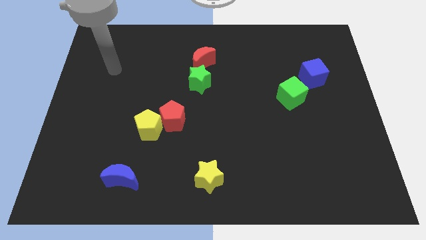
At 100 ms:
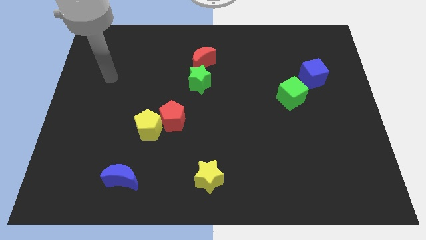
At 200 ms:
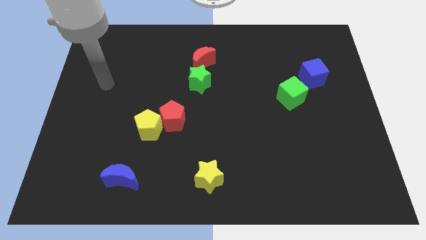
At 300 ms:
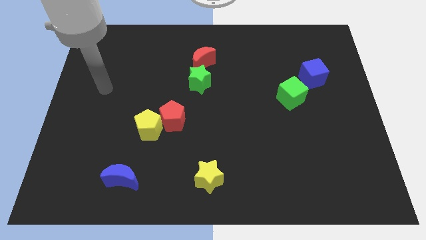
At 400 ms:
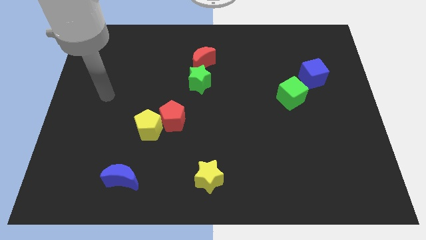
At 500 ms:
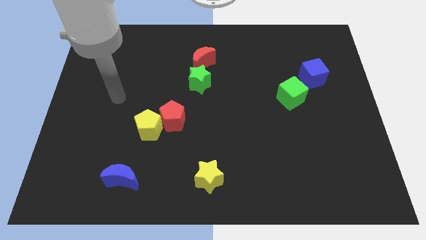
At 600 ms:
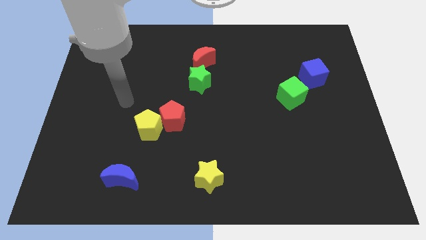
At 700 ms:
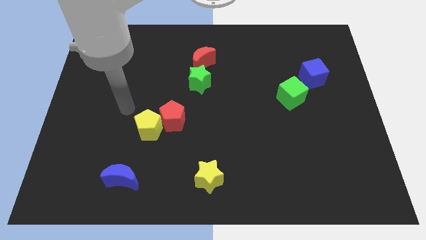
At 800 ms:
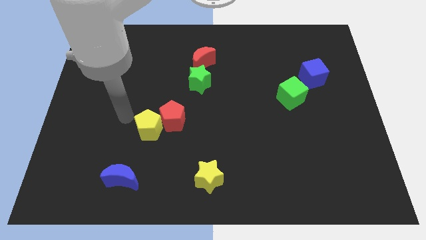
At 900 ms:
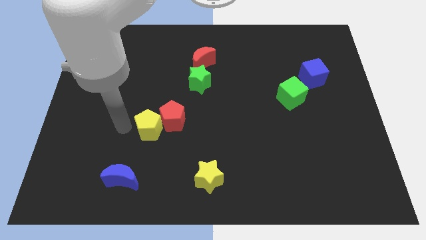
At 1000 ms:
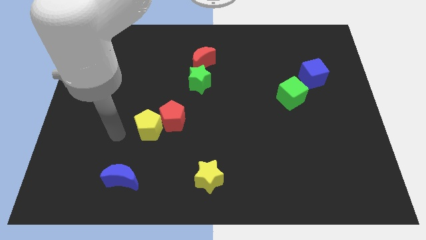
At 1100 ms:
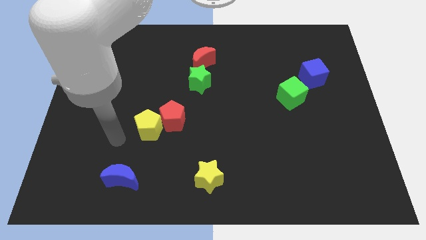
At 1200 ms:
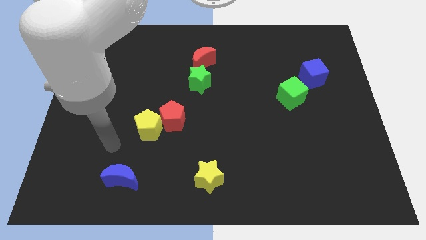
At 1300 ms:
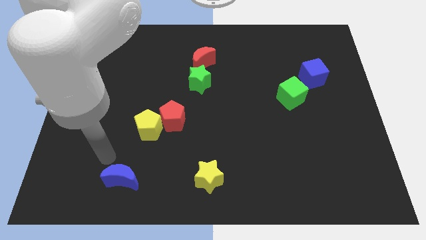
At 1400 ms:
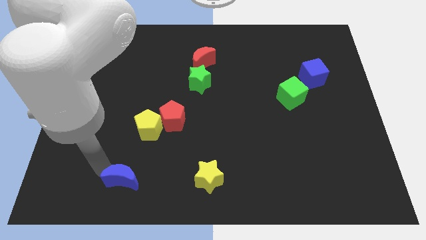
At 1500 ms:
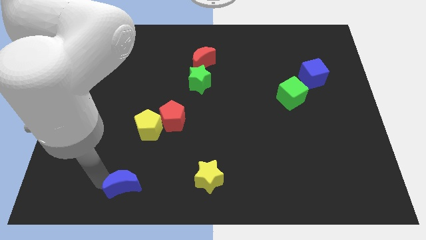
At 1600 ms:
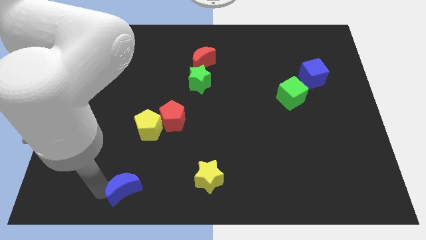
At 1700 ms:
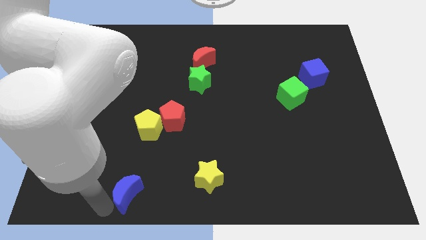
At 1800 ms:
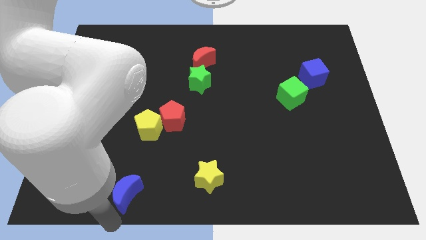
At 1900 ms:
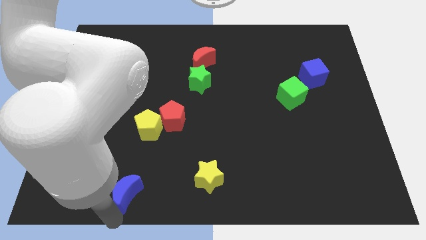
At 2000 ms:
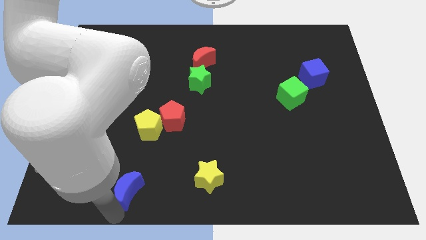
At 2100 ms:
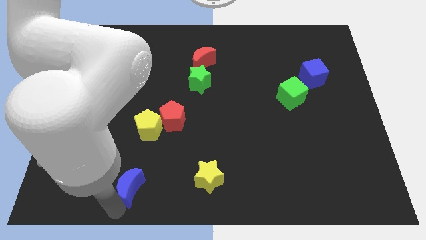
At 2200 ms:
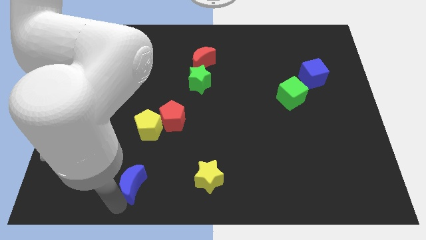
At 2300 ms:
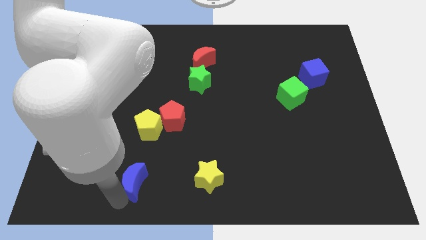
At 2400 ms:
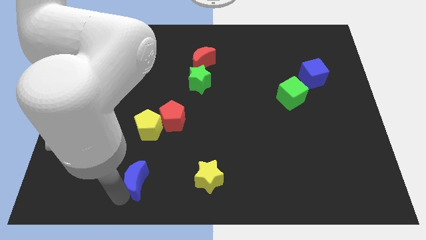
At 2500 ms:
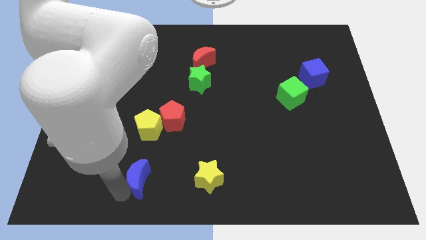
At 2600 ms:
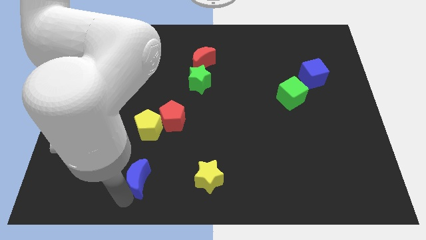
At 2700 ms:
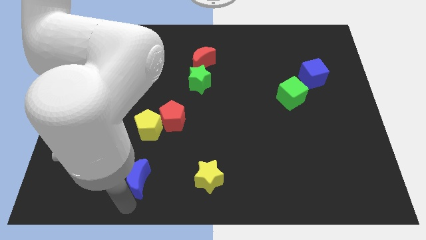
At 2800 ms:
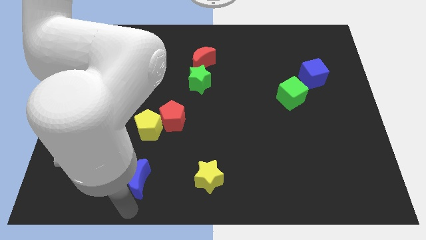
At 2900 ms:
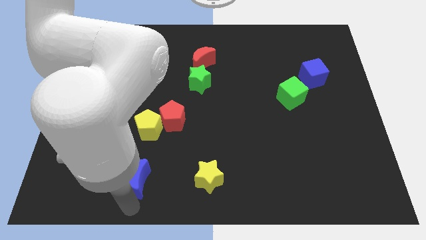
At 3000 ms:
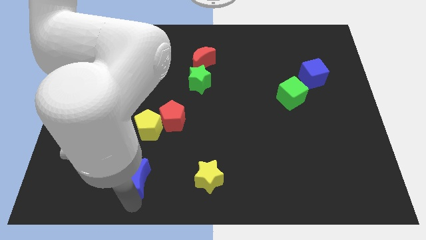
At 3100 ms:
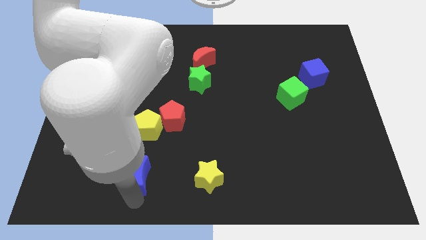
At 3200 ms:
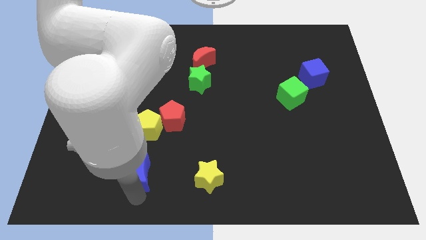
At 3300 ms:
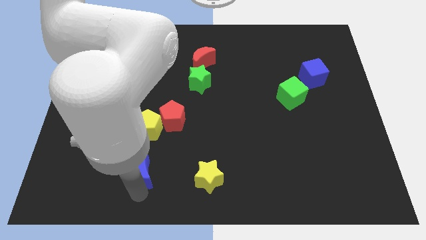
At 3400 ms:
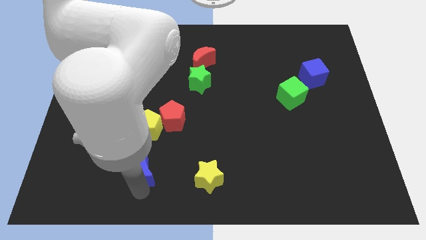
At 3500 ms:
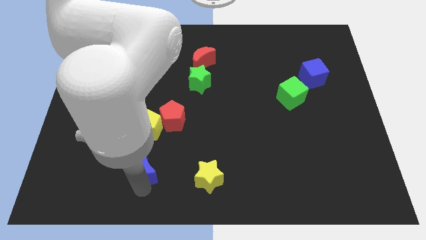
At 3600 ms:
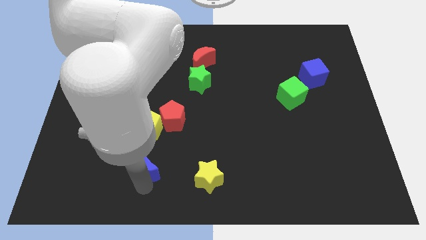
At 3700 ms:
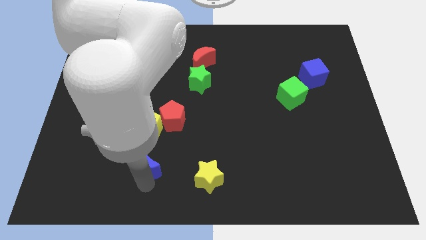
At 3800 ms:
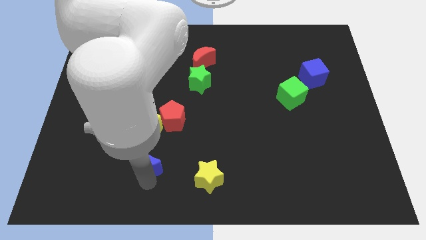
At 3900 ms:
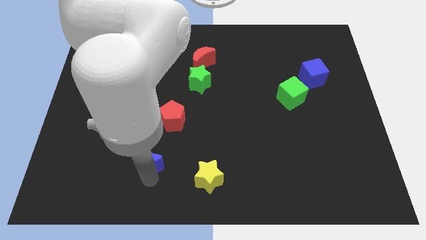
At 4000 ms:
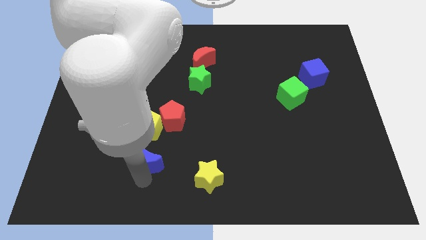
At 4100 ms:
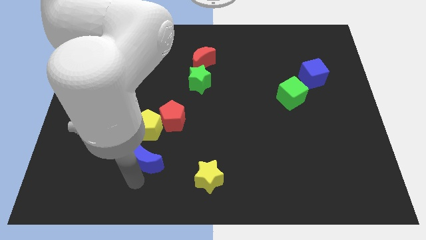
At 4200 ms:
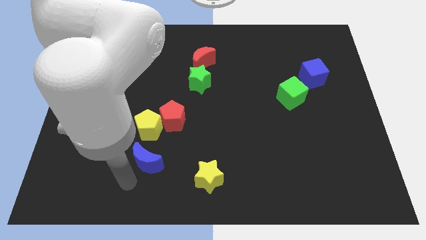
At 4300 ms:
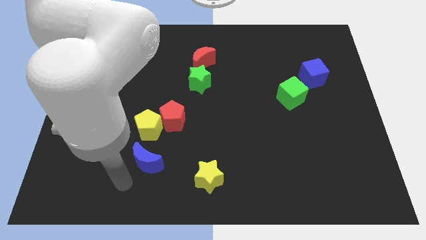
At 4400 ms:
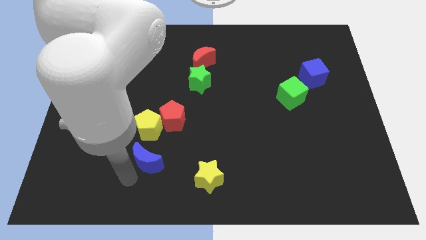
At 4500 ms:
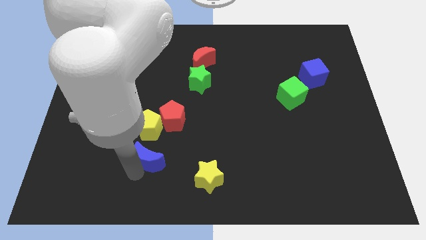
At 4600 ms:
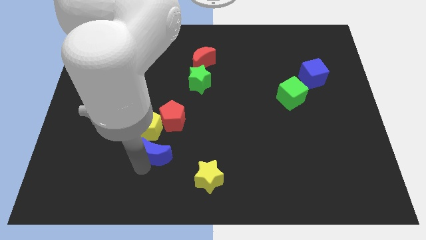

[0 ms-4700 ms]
push the blue moon a little upwards and right diagonally

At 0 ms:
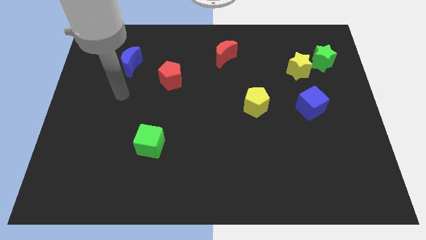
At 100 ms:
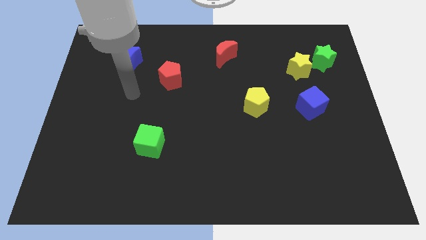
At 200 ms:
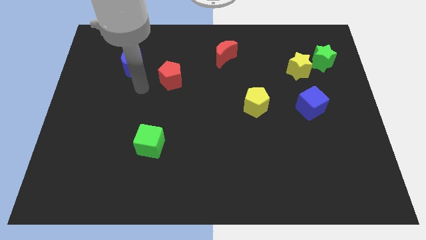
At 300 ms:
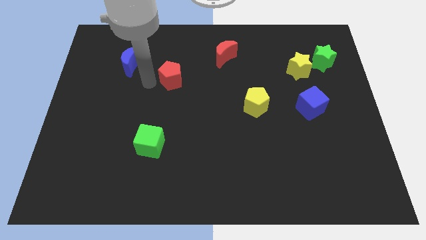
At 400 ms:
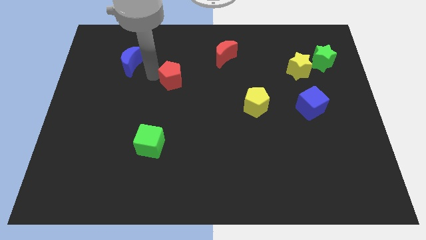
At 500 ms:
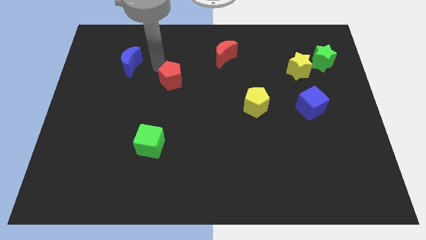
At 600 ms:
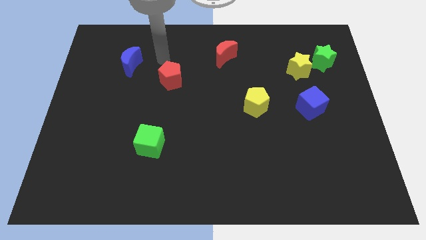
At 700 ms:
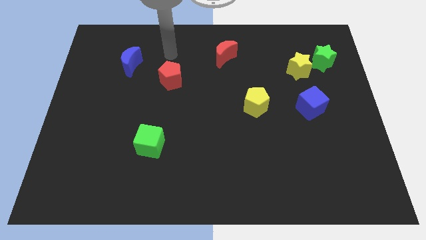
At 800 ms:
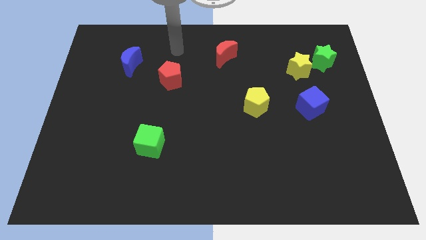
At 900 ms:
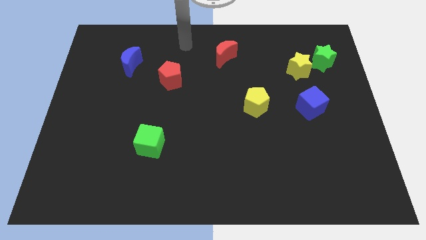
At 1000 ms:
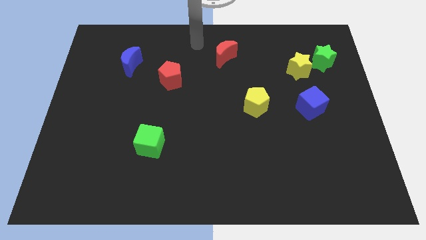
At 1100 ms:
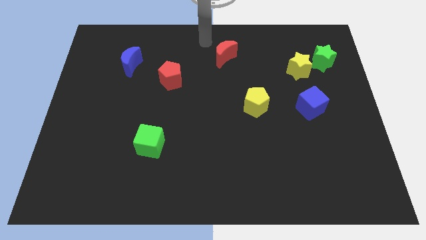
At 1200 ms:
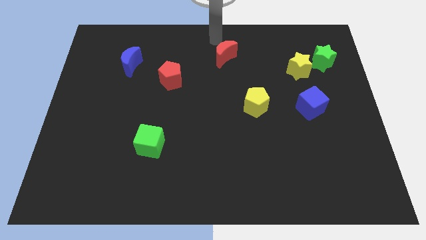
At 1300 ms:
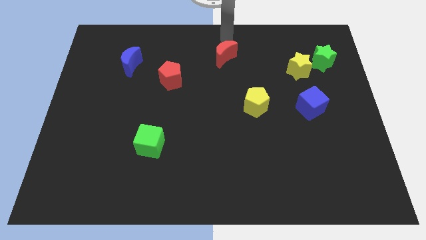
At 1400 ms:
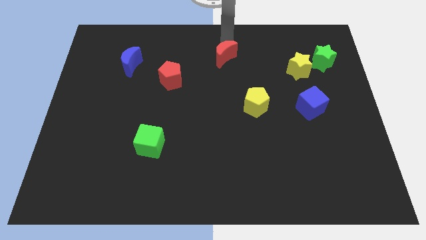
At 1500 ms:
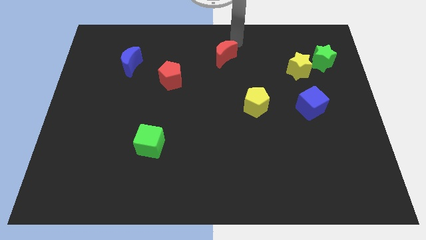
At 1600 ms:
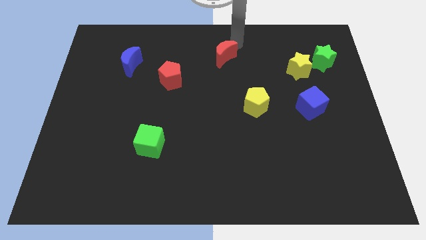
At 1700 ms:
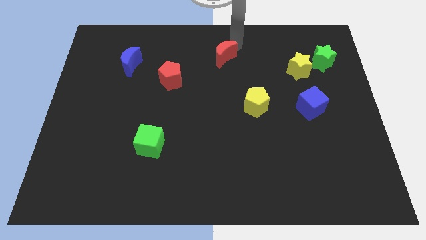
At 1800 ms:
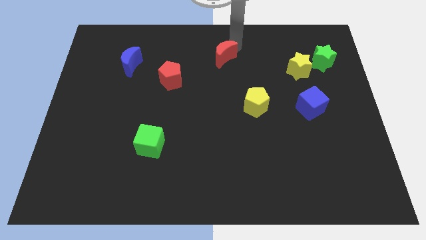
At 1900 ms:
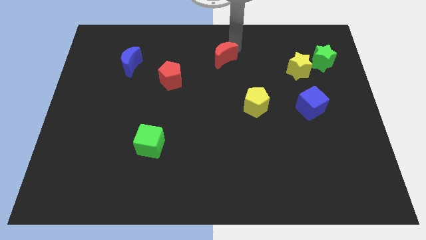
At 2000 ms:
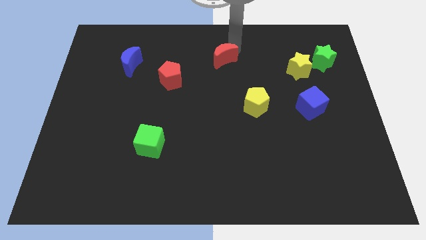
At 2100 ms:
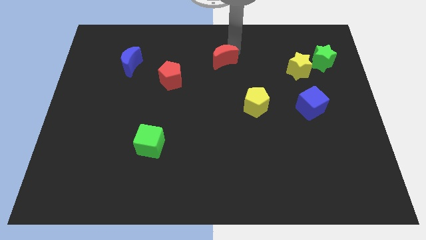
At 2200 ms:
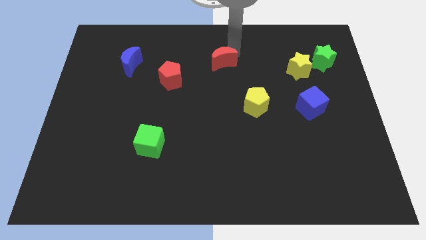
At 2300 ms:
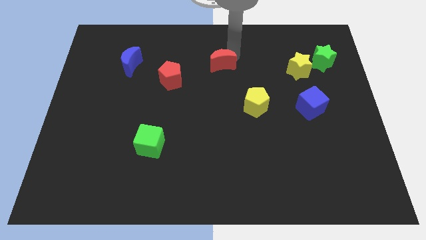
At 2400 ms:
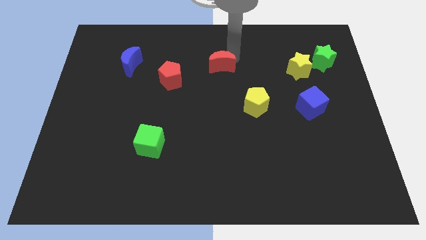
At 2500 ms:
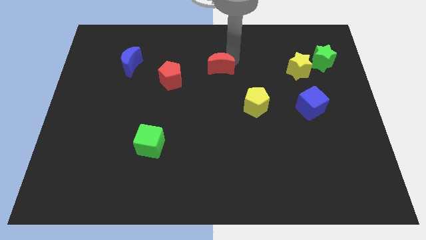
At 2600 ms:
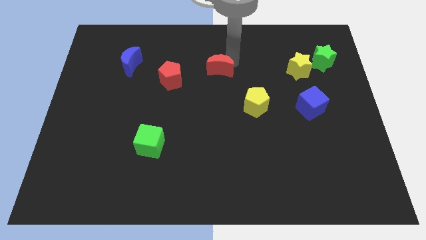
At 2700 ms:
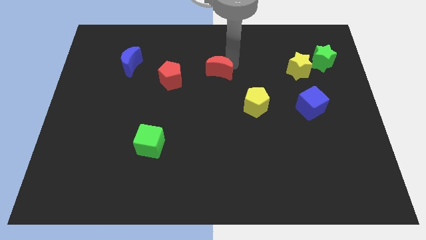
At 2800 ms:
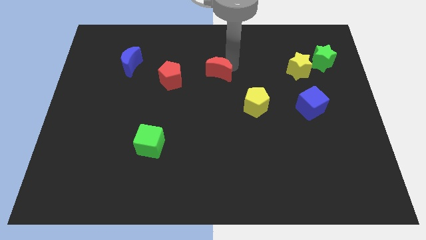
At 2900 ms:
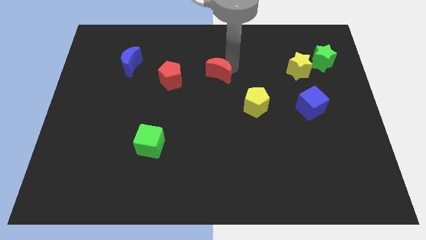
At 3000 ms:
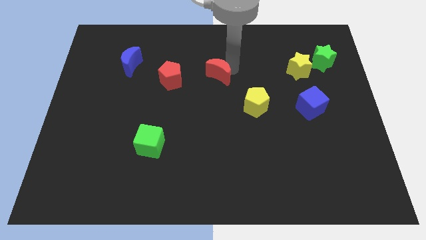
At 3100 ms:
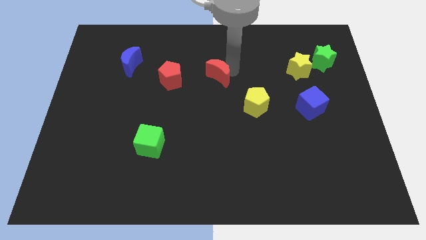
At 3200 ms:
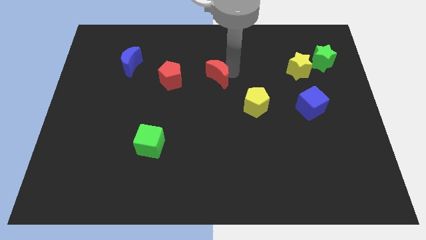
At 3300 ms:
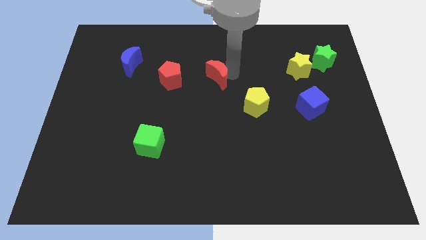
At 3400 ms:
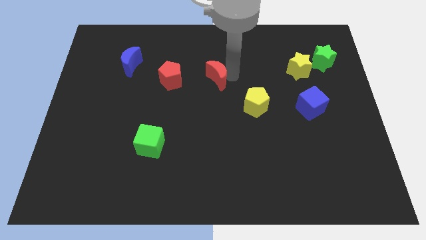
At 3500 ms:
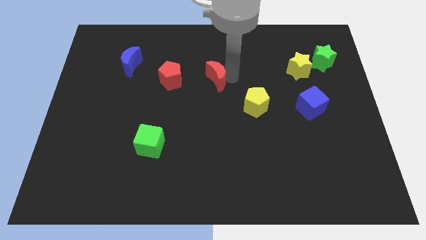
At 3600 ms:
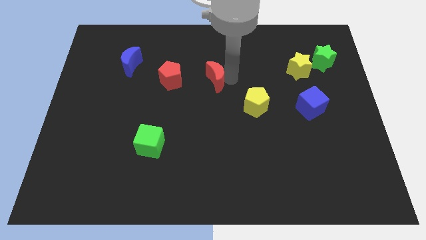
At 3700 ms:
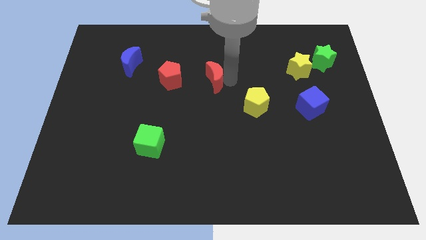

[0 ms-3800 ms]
move the red moon slightly down and left diagonally
